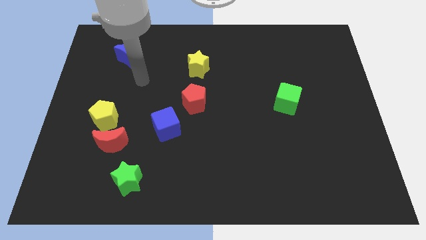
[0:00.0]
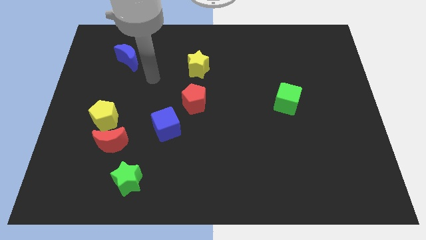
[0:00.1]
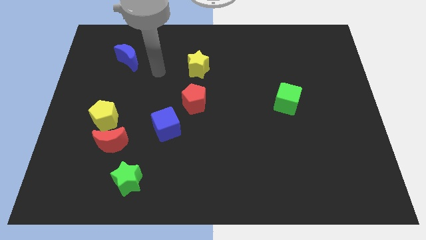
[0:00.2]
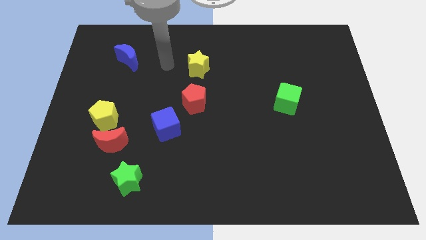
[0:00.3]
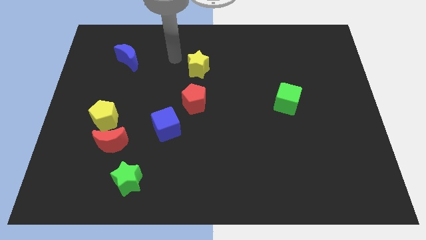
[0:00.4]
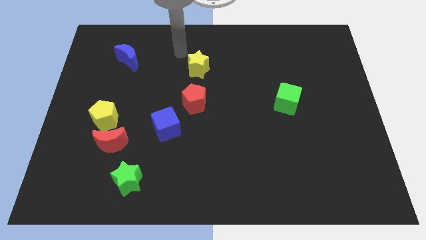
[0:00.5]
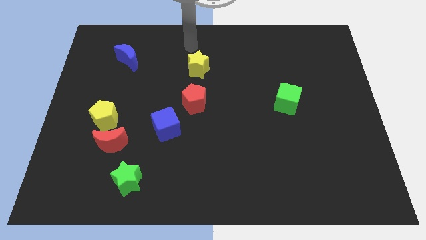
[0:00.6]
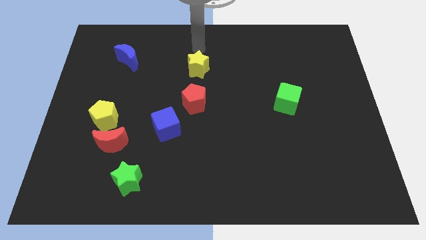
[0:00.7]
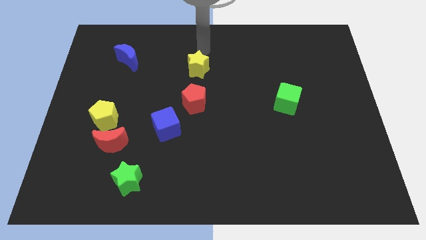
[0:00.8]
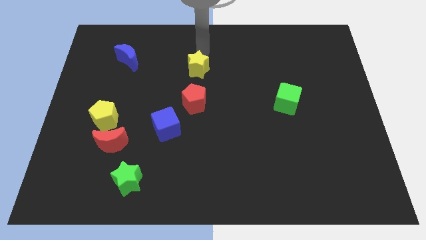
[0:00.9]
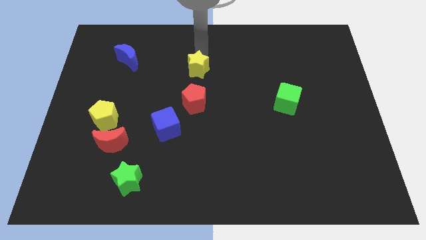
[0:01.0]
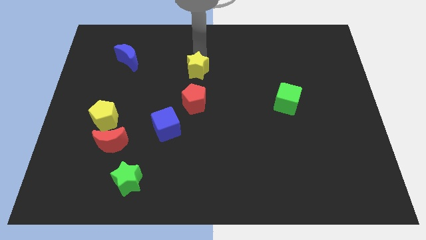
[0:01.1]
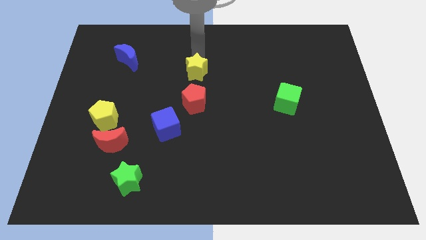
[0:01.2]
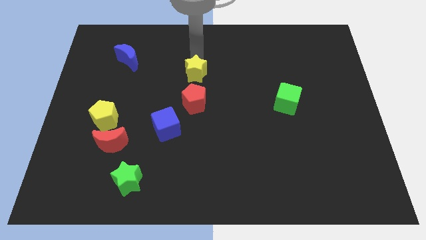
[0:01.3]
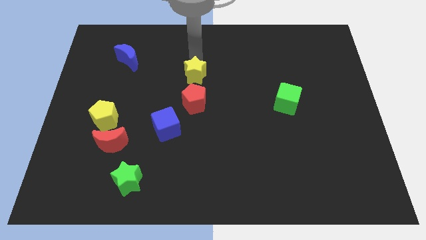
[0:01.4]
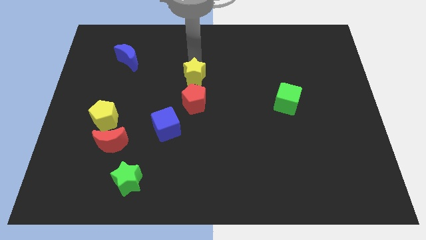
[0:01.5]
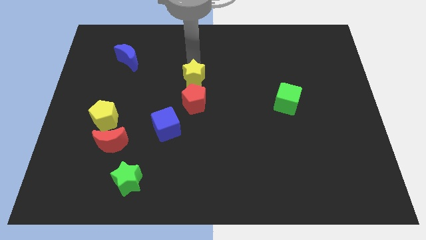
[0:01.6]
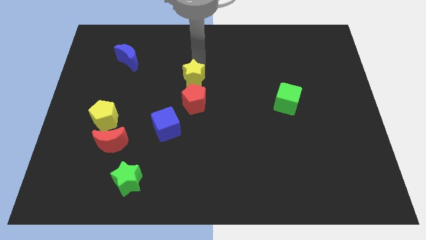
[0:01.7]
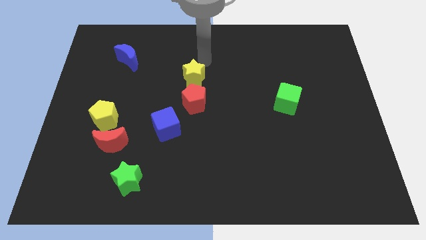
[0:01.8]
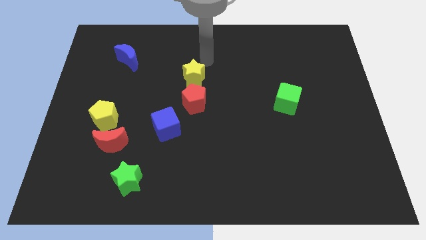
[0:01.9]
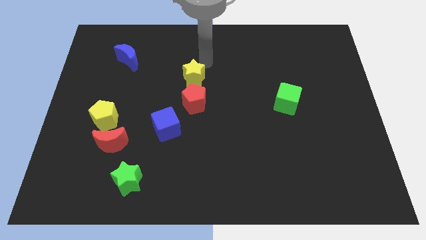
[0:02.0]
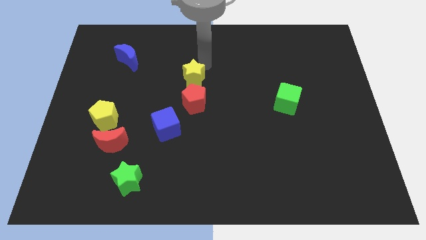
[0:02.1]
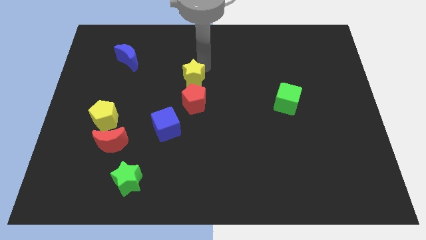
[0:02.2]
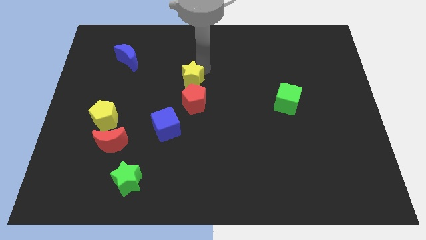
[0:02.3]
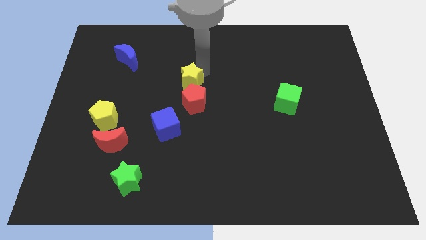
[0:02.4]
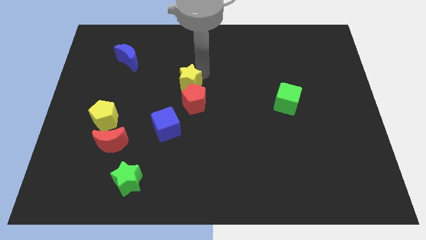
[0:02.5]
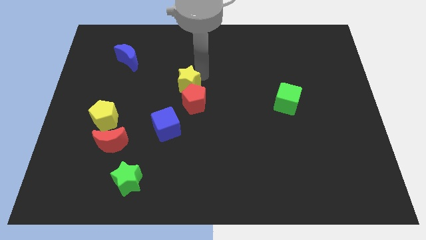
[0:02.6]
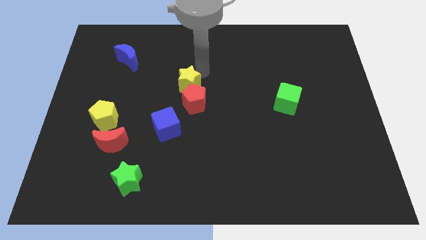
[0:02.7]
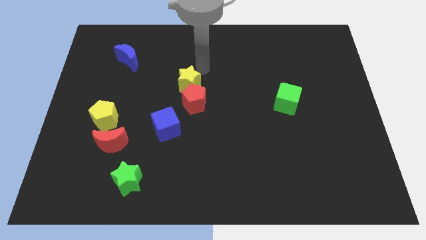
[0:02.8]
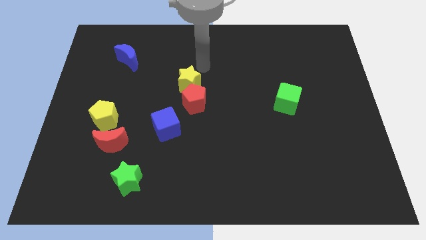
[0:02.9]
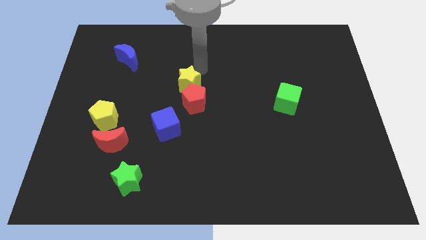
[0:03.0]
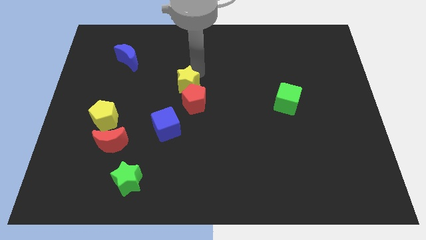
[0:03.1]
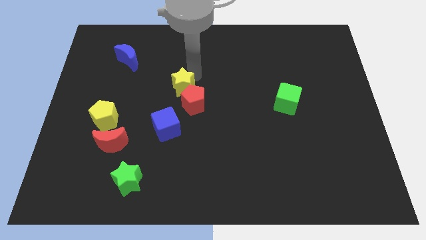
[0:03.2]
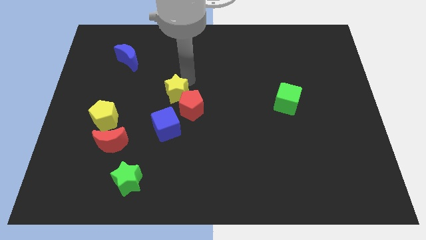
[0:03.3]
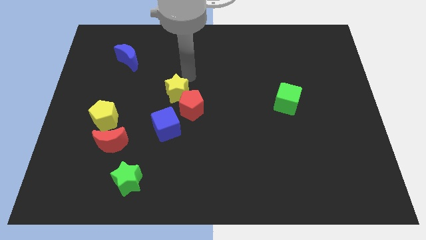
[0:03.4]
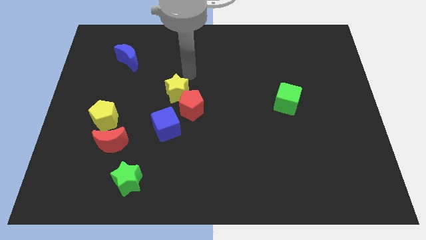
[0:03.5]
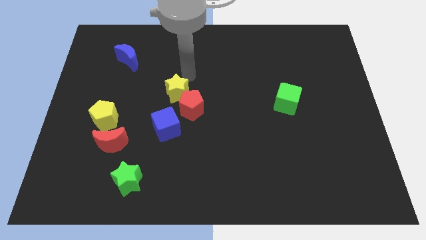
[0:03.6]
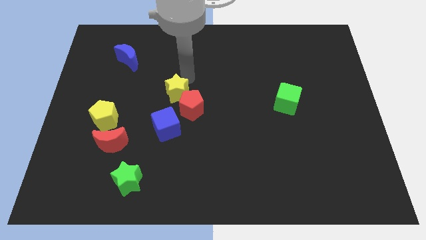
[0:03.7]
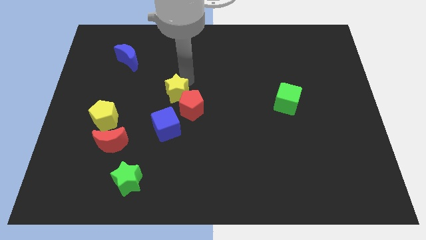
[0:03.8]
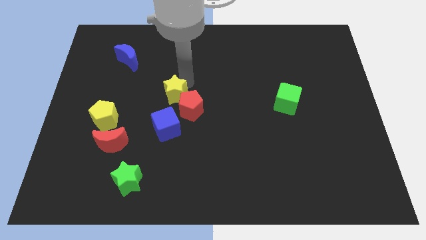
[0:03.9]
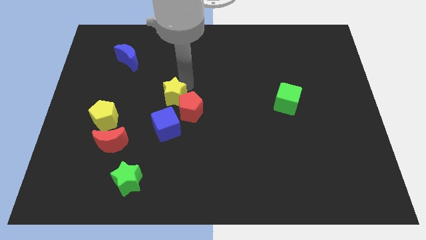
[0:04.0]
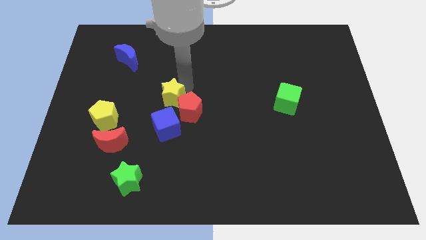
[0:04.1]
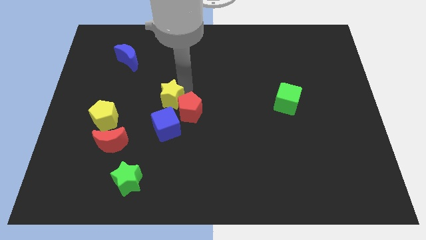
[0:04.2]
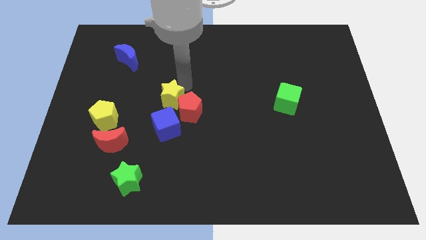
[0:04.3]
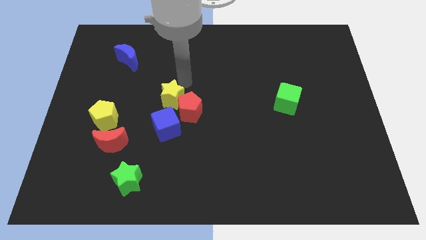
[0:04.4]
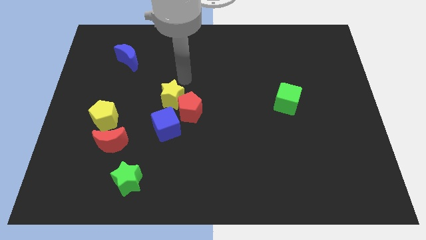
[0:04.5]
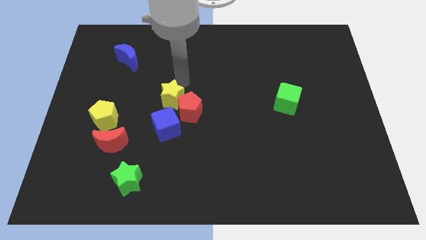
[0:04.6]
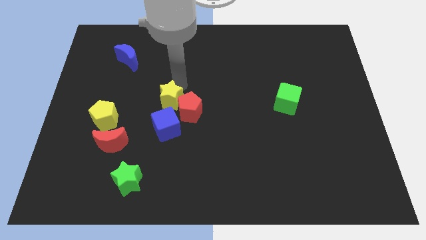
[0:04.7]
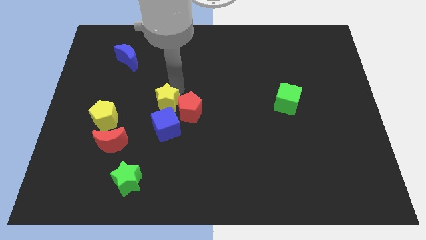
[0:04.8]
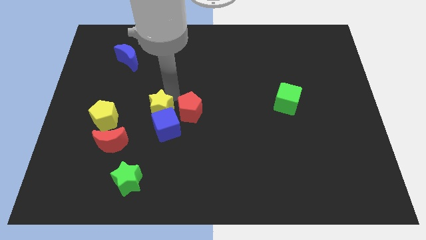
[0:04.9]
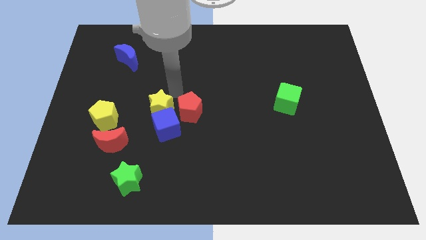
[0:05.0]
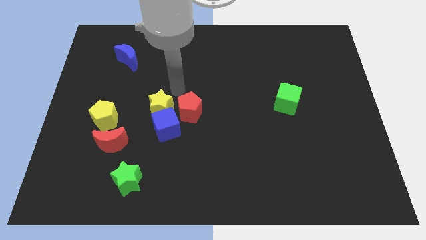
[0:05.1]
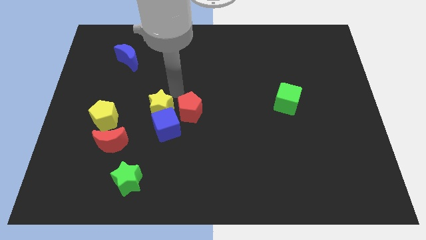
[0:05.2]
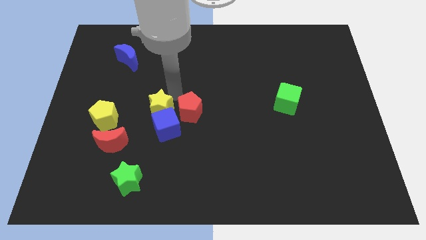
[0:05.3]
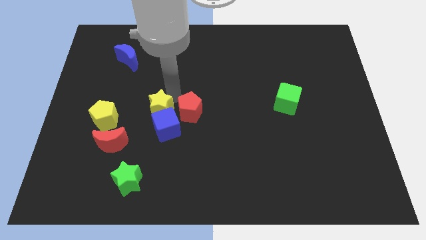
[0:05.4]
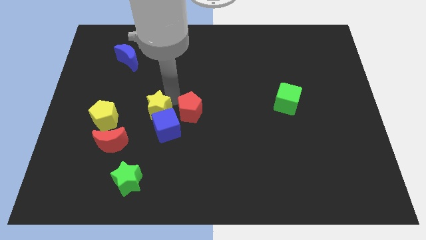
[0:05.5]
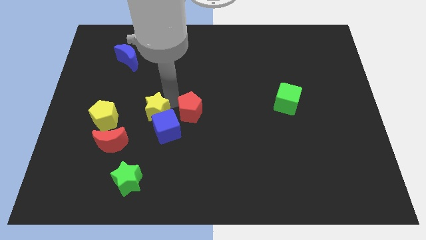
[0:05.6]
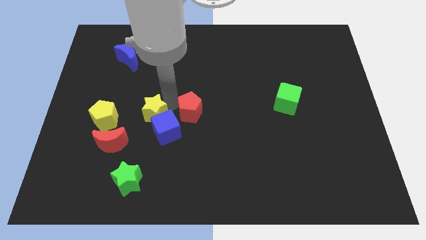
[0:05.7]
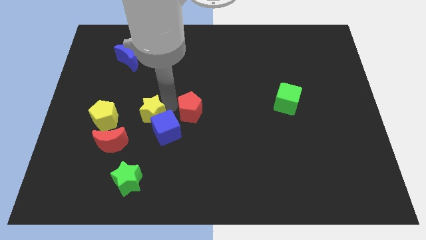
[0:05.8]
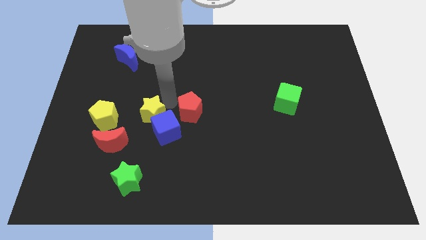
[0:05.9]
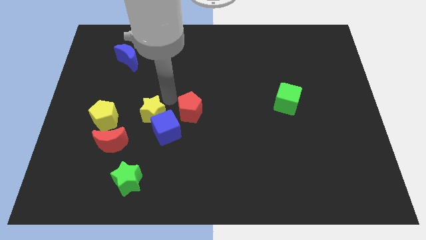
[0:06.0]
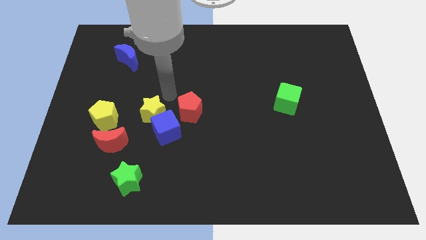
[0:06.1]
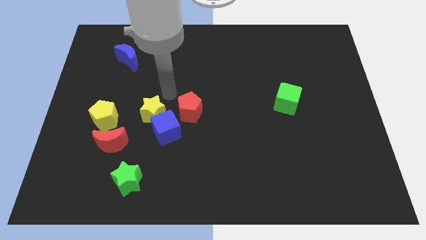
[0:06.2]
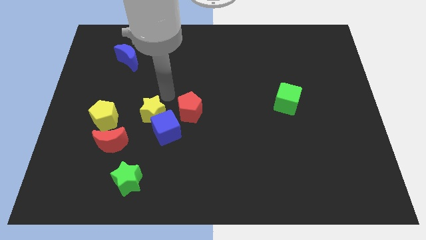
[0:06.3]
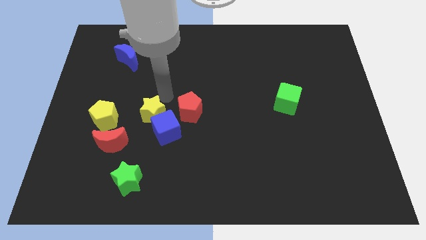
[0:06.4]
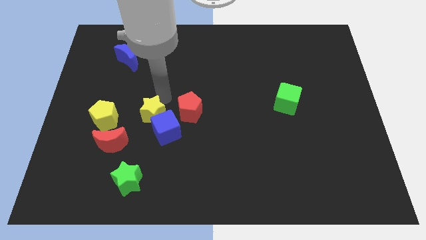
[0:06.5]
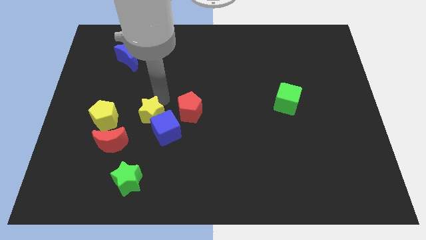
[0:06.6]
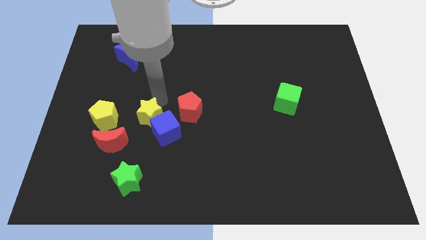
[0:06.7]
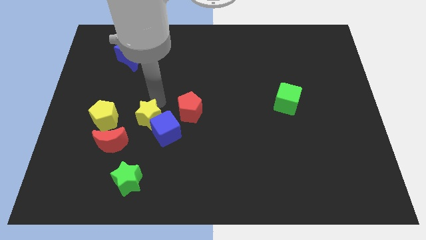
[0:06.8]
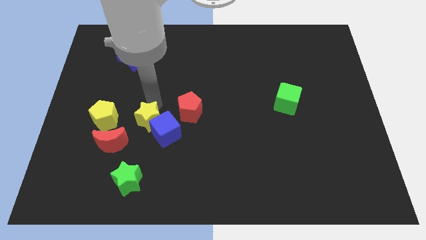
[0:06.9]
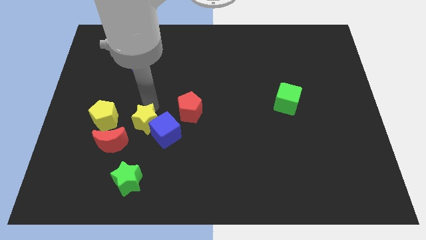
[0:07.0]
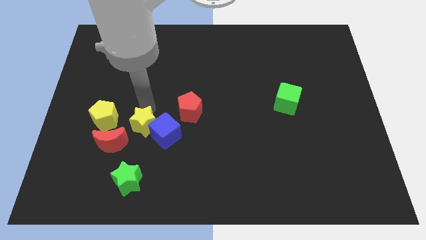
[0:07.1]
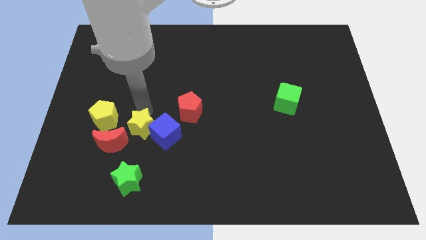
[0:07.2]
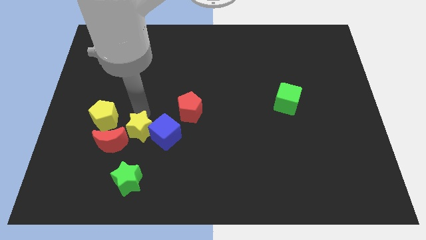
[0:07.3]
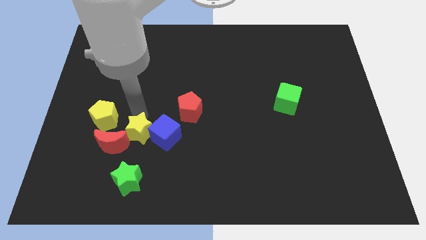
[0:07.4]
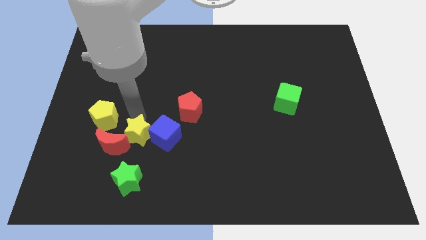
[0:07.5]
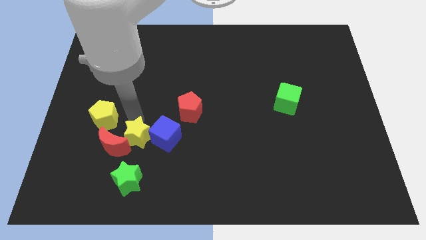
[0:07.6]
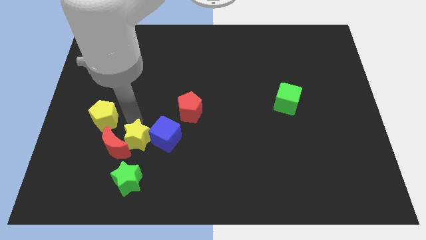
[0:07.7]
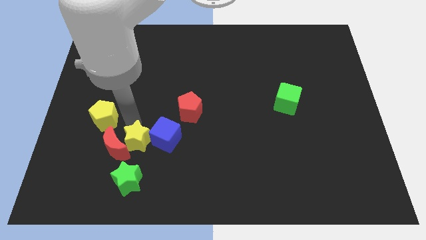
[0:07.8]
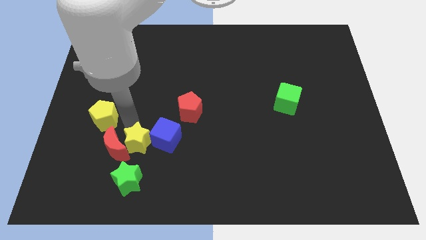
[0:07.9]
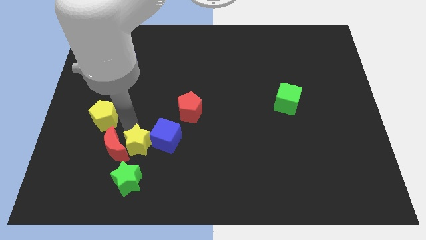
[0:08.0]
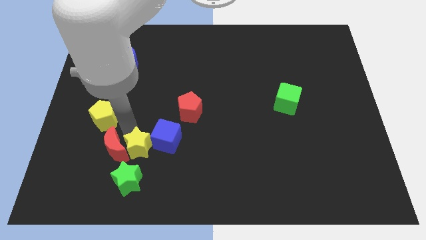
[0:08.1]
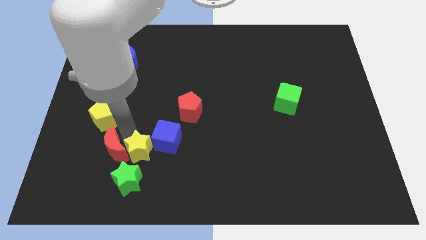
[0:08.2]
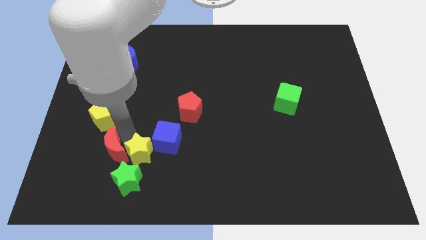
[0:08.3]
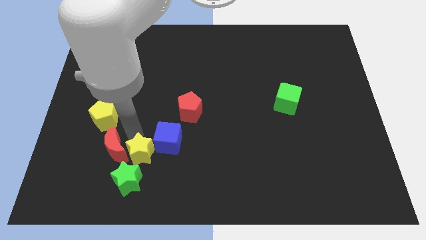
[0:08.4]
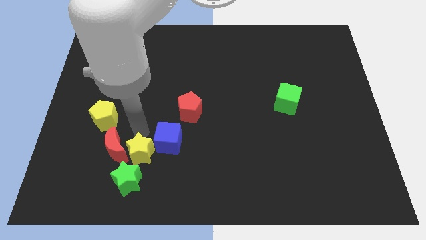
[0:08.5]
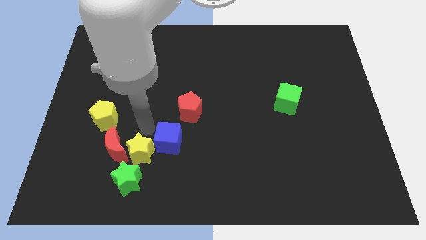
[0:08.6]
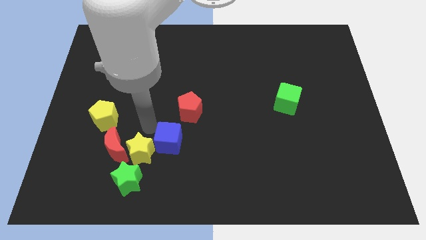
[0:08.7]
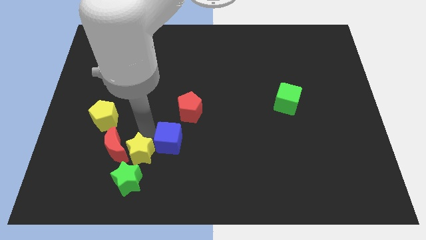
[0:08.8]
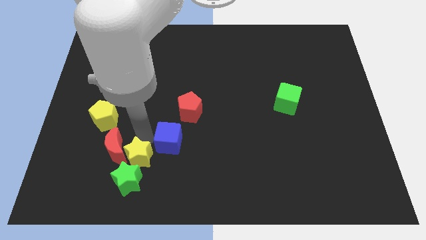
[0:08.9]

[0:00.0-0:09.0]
slide the yellow star close to the green star
